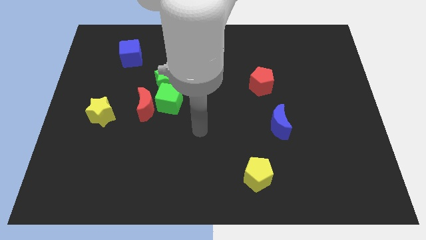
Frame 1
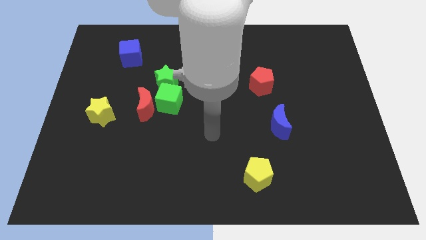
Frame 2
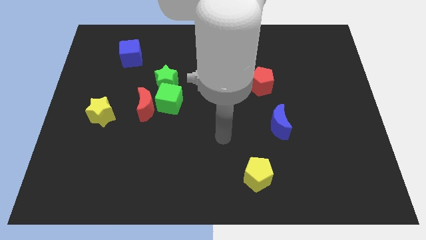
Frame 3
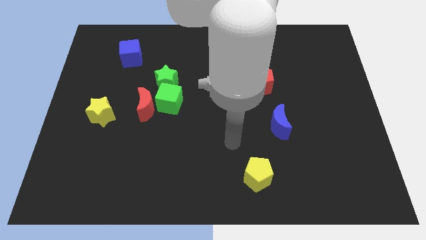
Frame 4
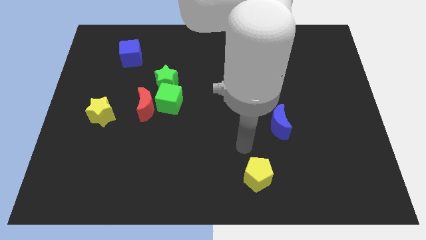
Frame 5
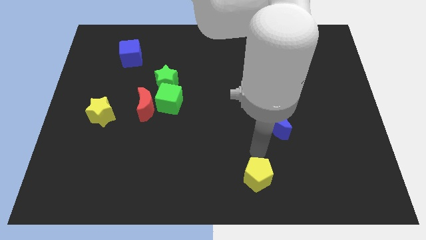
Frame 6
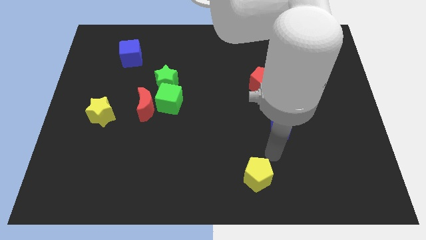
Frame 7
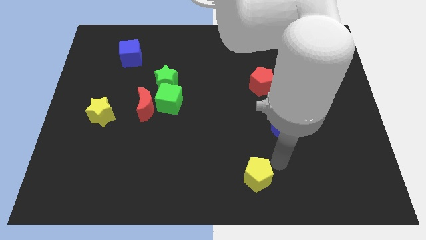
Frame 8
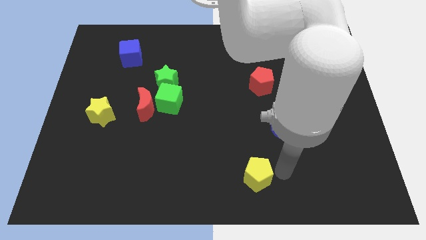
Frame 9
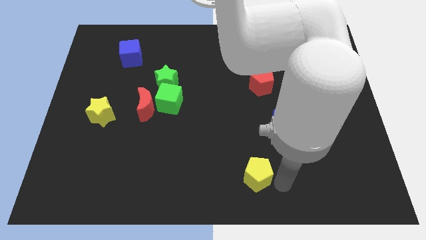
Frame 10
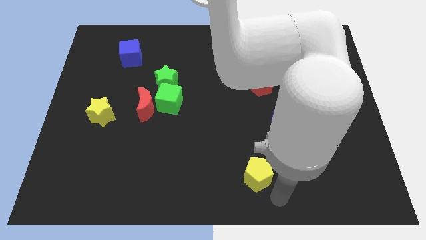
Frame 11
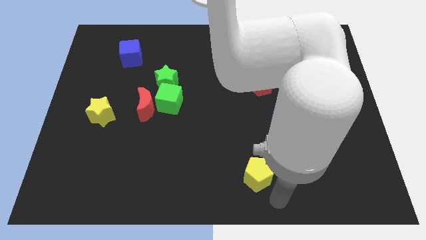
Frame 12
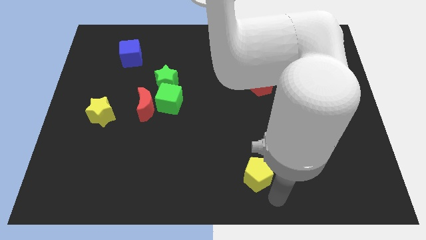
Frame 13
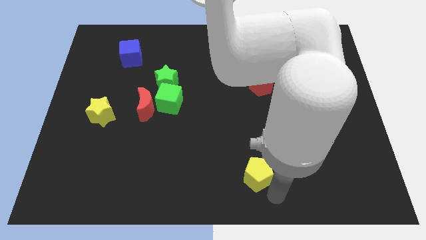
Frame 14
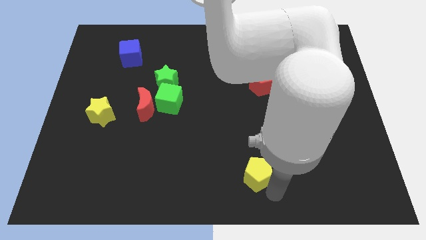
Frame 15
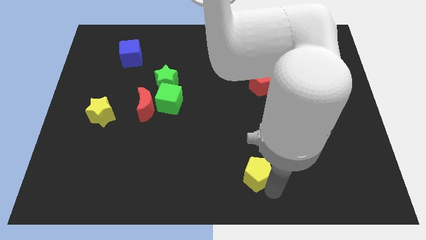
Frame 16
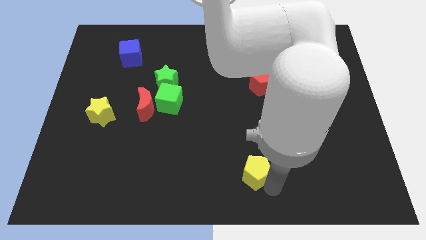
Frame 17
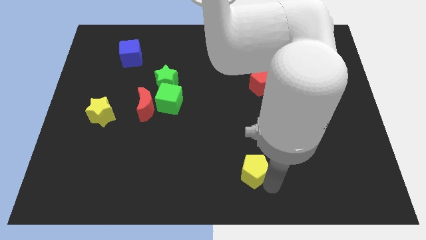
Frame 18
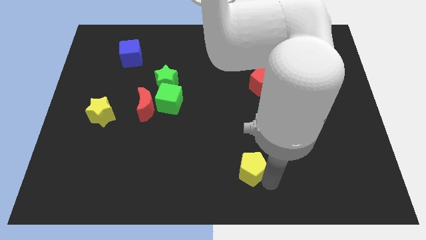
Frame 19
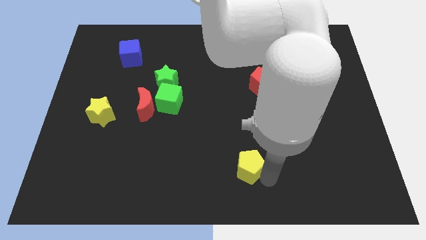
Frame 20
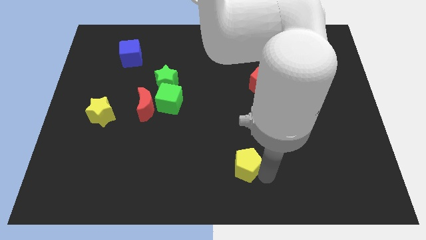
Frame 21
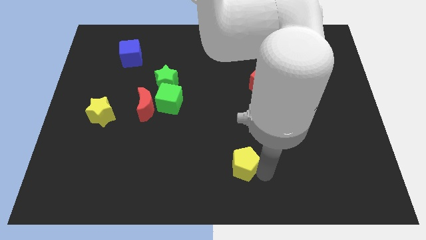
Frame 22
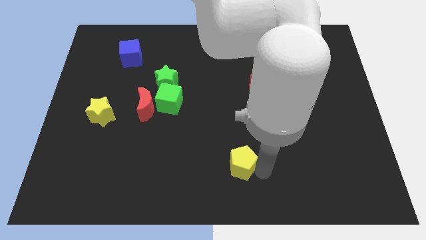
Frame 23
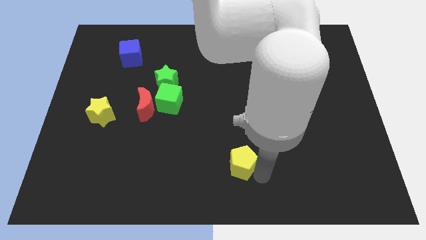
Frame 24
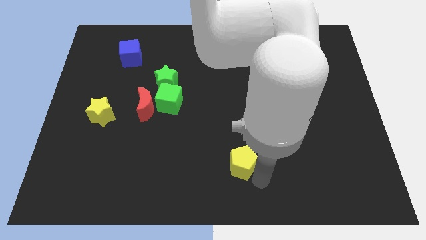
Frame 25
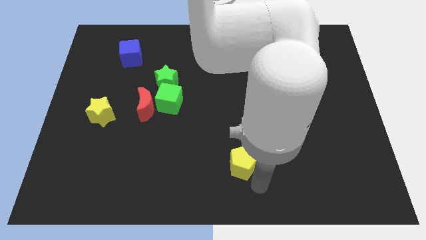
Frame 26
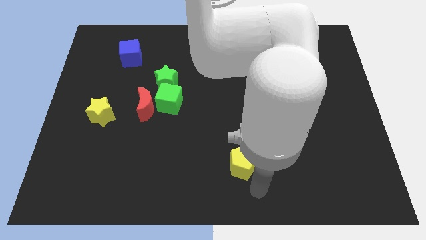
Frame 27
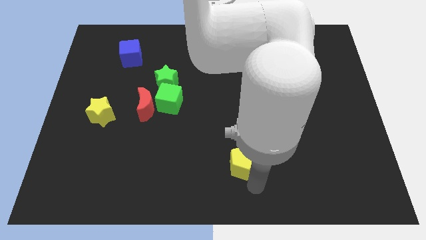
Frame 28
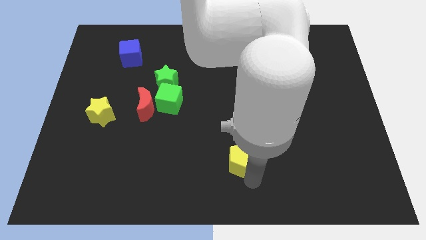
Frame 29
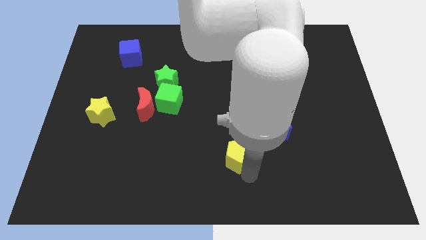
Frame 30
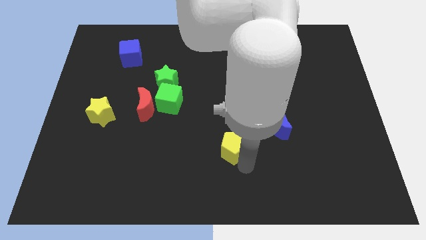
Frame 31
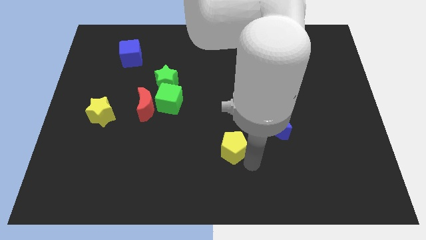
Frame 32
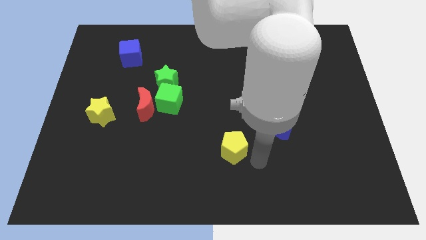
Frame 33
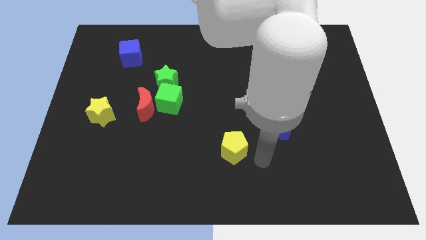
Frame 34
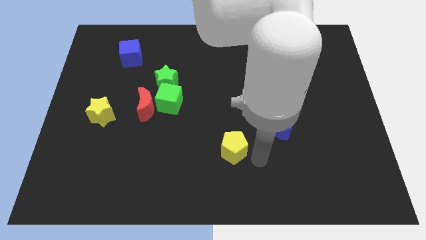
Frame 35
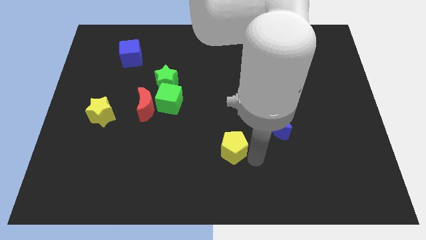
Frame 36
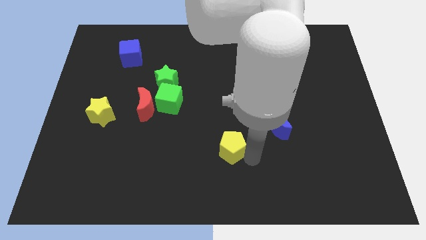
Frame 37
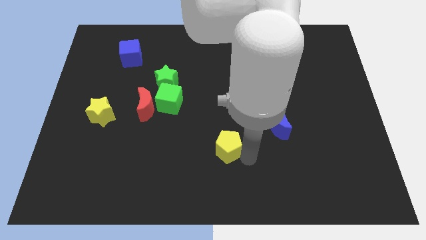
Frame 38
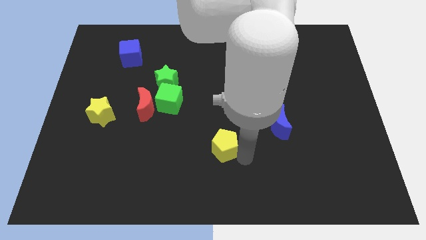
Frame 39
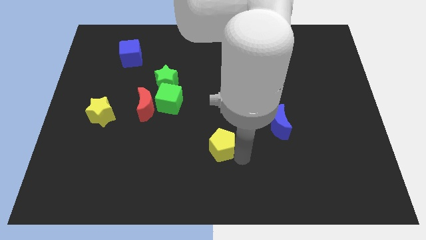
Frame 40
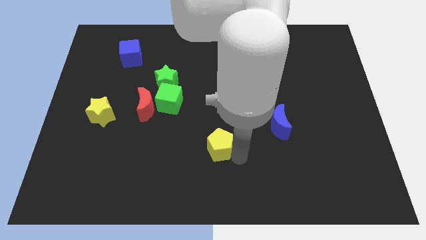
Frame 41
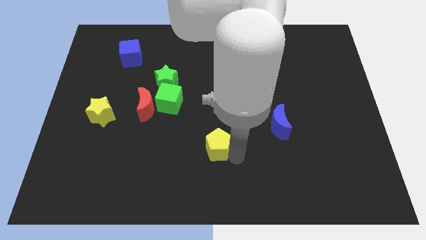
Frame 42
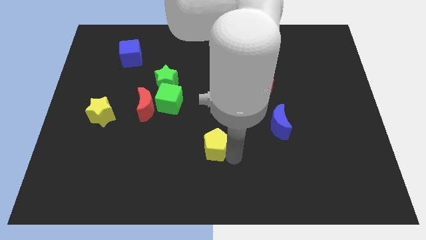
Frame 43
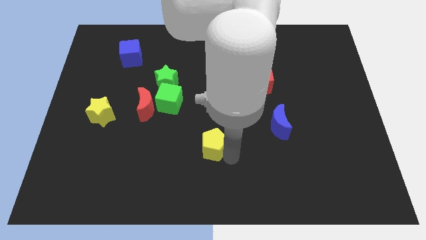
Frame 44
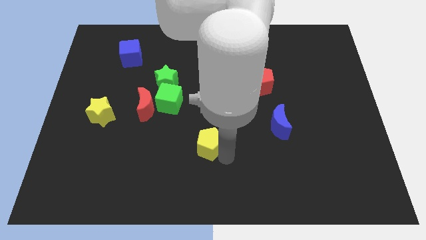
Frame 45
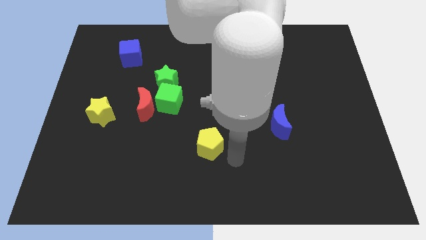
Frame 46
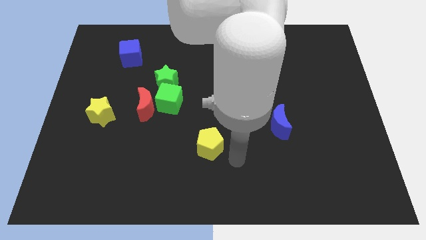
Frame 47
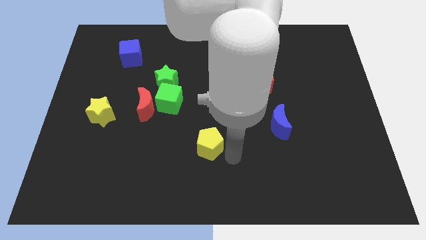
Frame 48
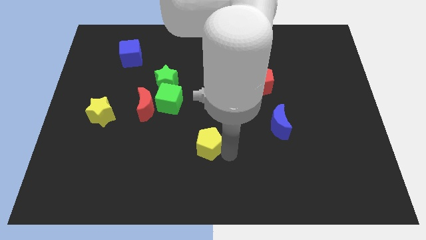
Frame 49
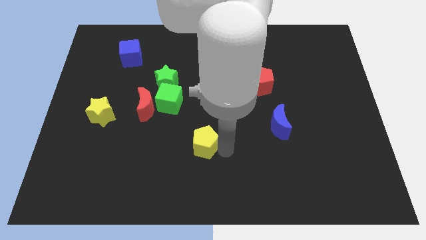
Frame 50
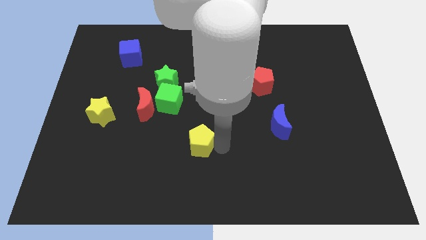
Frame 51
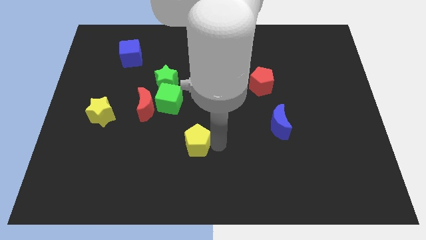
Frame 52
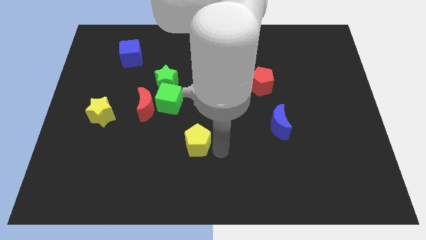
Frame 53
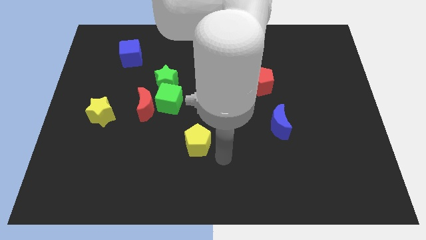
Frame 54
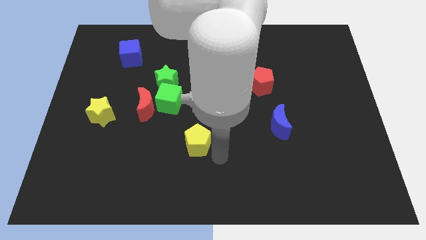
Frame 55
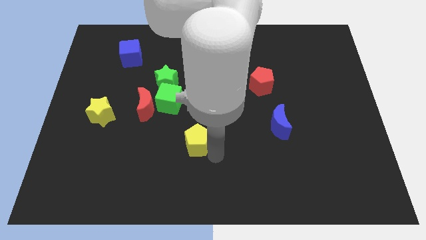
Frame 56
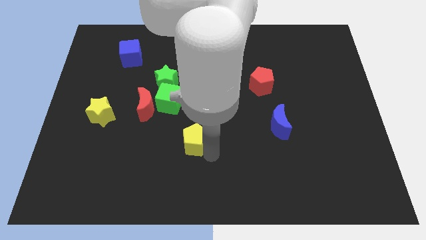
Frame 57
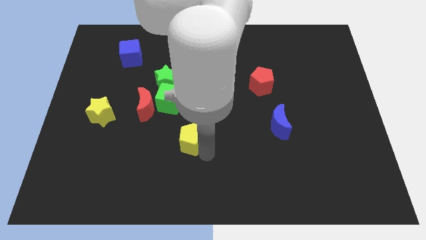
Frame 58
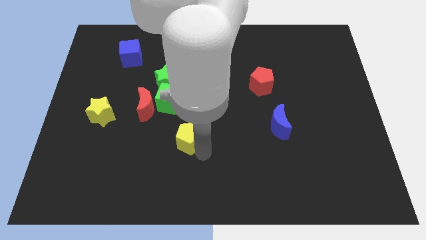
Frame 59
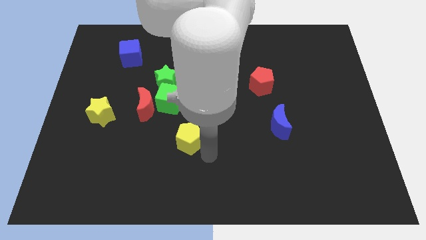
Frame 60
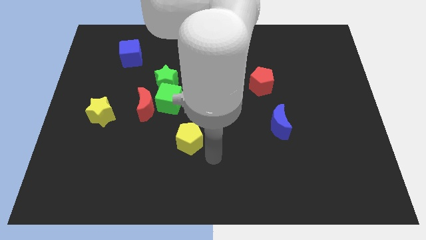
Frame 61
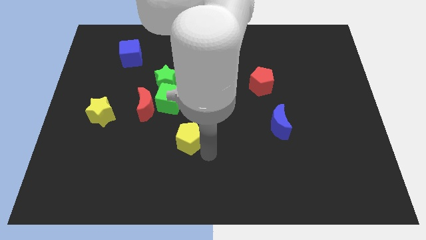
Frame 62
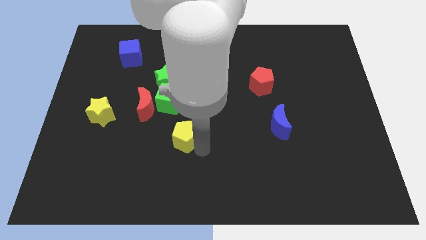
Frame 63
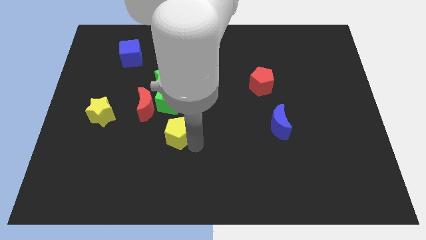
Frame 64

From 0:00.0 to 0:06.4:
push the yellow pentagon to the bottom right side of the red moon

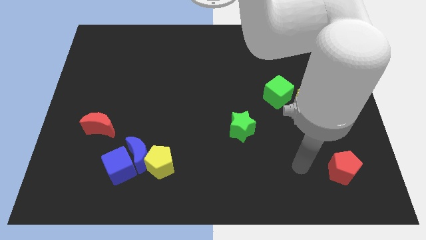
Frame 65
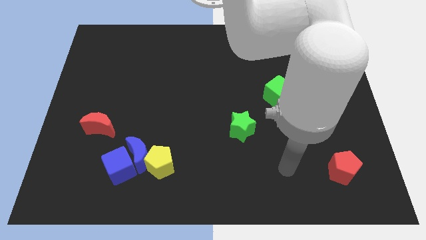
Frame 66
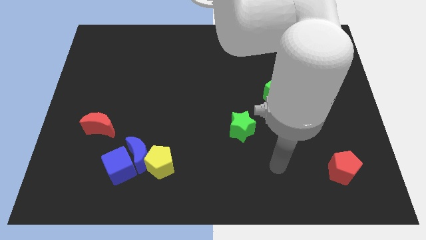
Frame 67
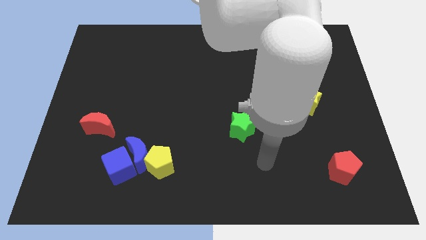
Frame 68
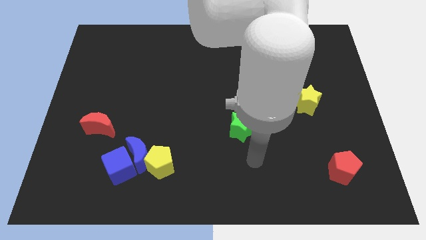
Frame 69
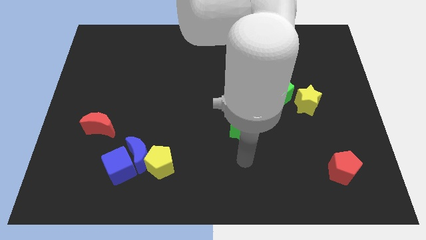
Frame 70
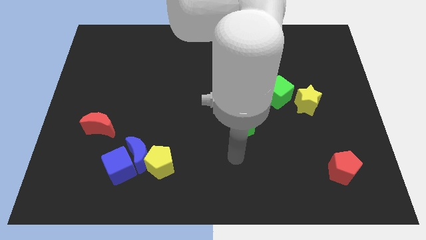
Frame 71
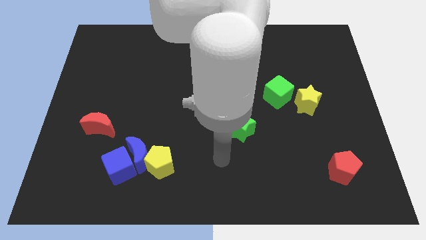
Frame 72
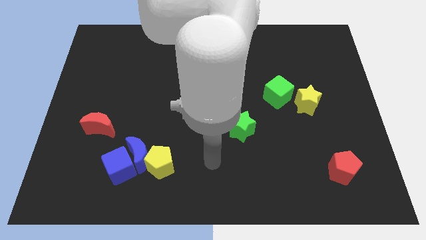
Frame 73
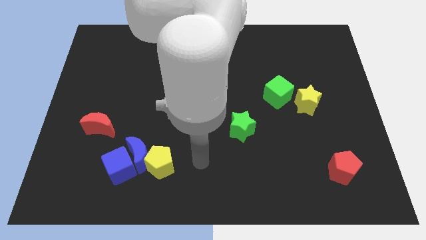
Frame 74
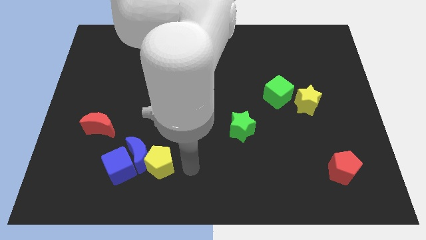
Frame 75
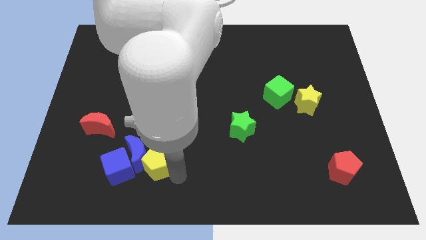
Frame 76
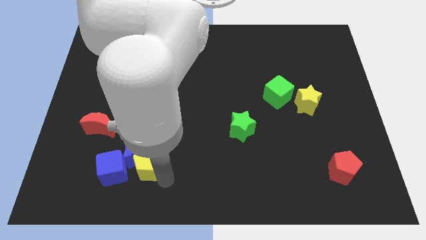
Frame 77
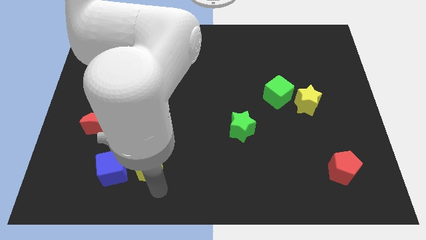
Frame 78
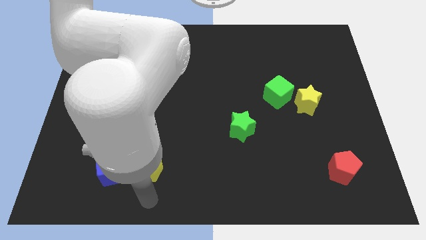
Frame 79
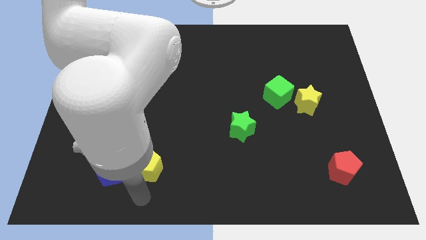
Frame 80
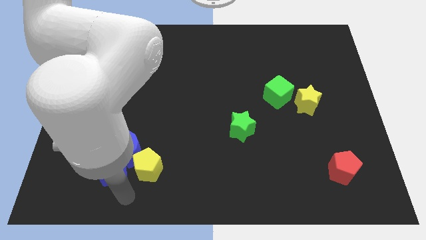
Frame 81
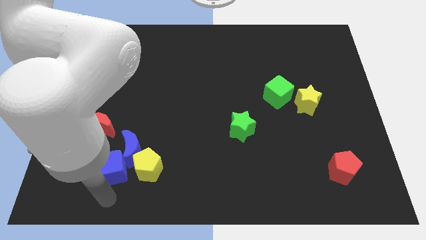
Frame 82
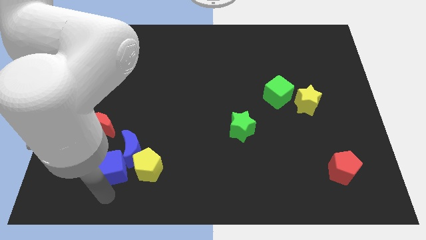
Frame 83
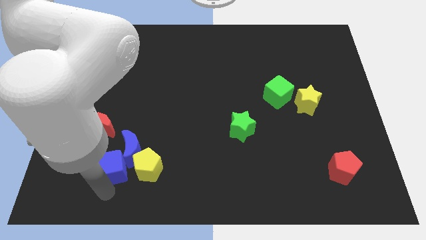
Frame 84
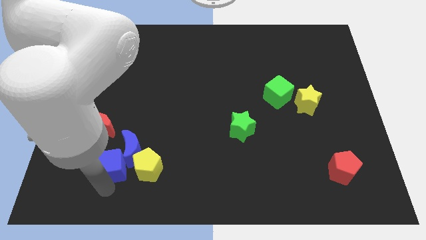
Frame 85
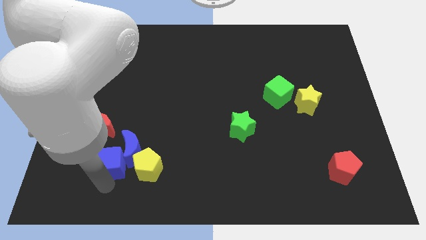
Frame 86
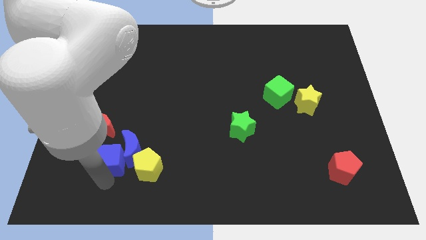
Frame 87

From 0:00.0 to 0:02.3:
slide the blue cube diagonally up and to the left of the yellow pentagon
